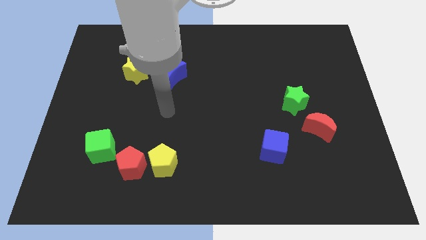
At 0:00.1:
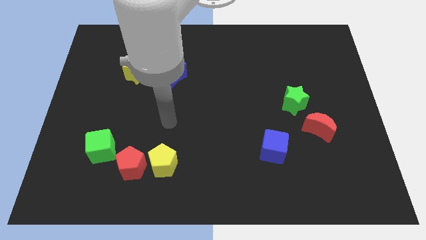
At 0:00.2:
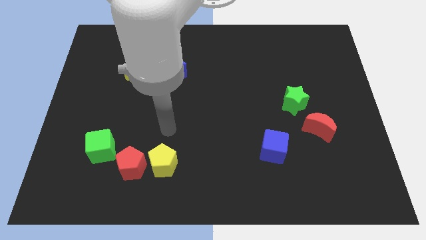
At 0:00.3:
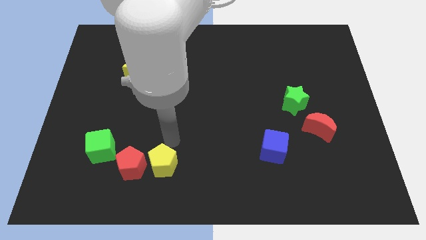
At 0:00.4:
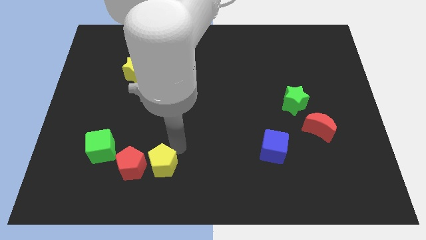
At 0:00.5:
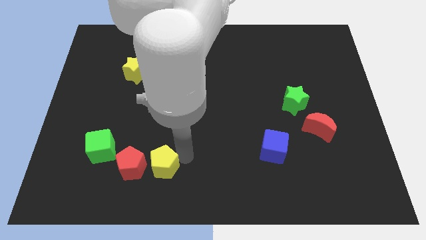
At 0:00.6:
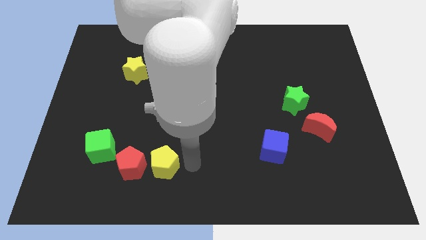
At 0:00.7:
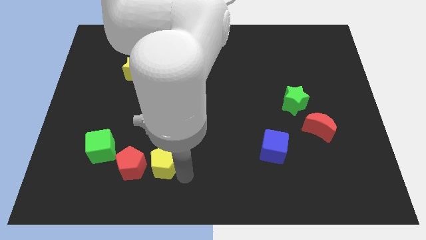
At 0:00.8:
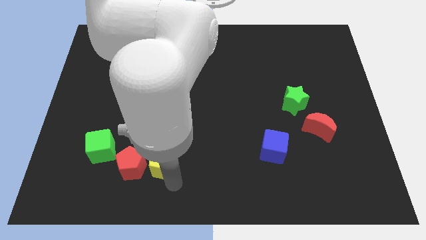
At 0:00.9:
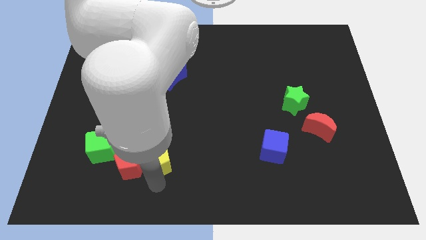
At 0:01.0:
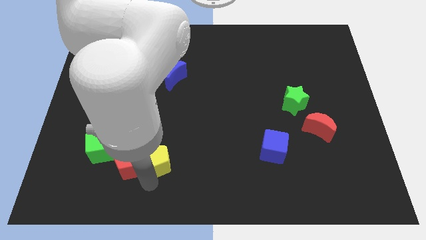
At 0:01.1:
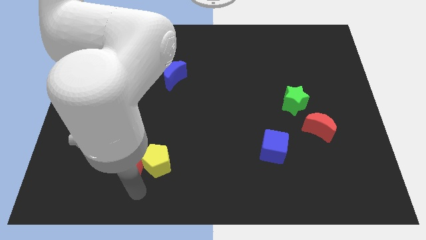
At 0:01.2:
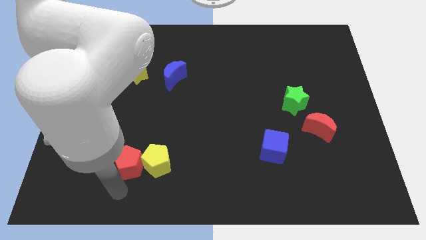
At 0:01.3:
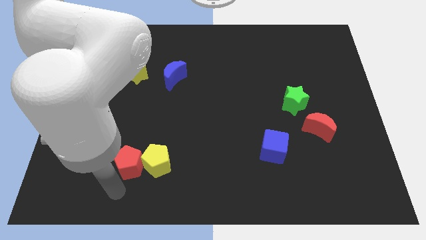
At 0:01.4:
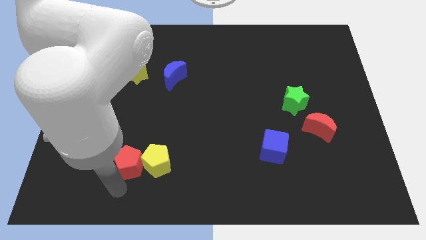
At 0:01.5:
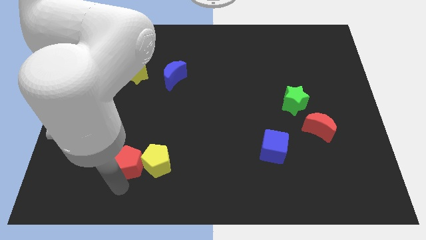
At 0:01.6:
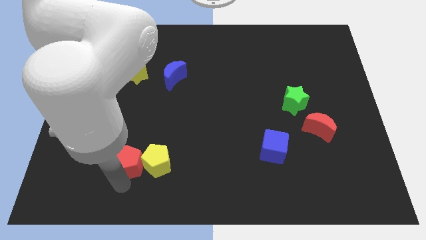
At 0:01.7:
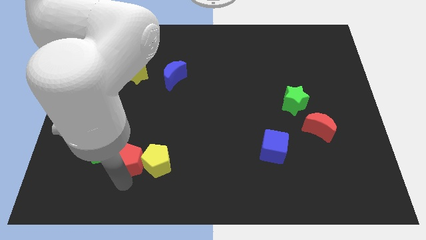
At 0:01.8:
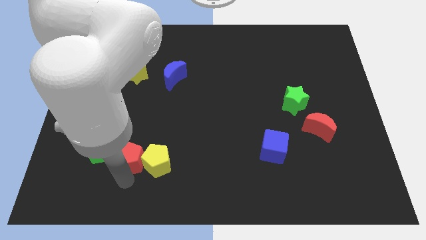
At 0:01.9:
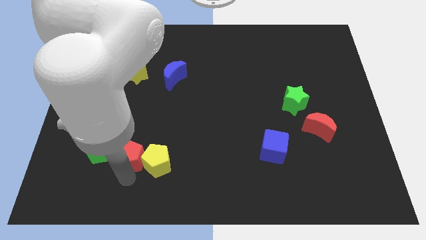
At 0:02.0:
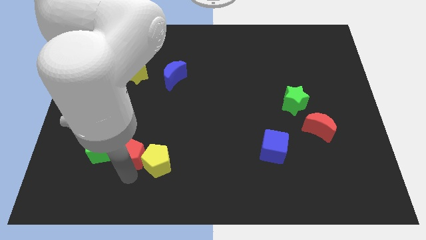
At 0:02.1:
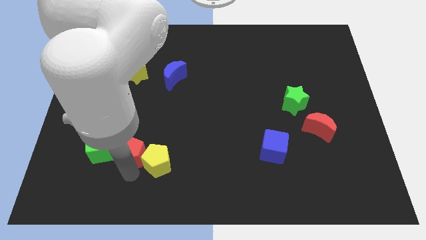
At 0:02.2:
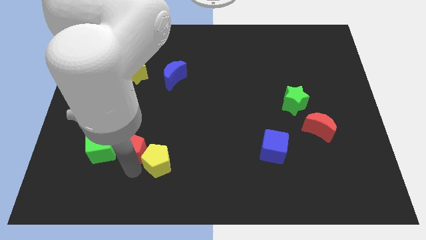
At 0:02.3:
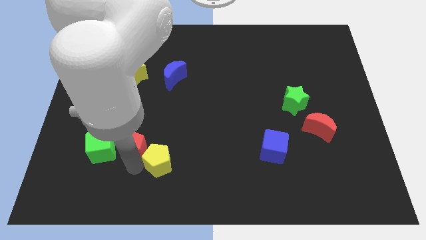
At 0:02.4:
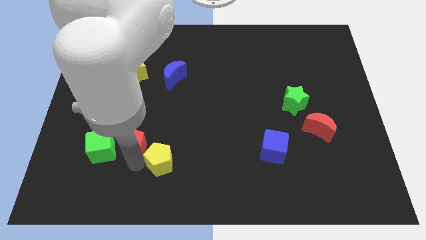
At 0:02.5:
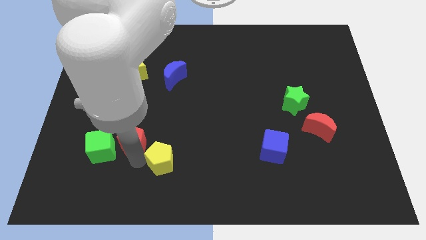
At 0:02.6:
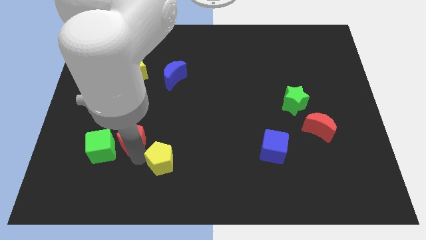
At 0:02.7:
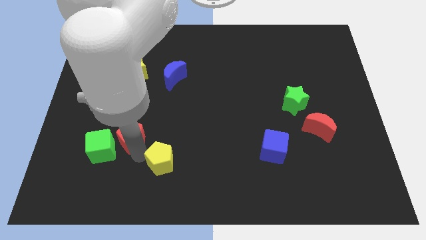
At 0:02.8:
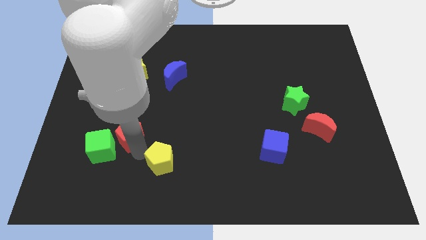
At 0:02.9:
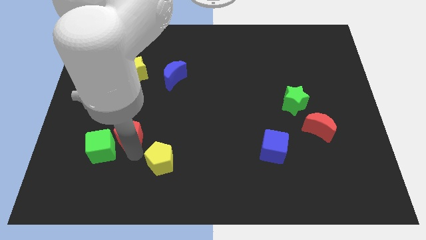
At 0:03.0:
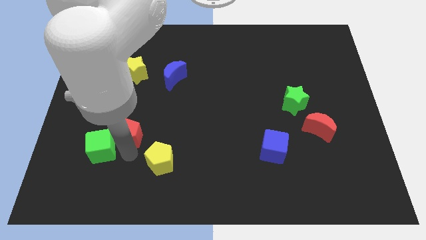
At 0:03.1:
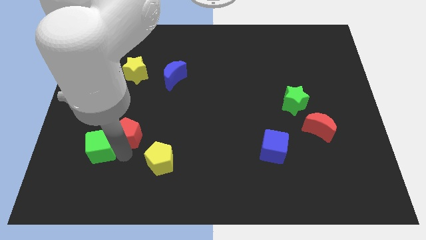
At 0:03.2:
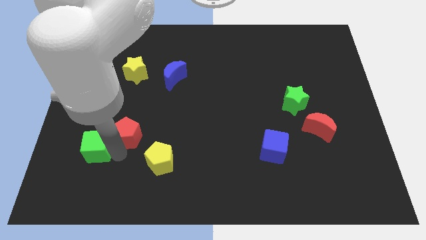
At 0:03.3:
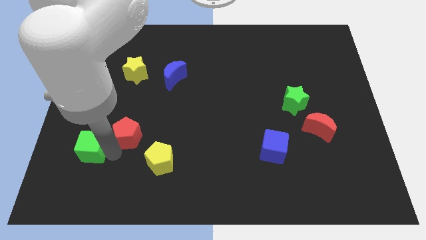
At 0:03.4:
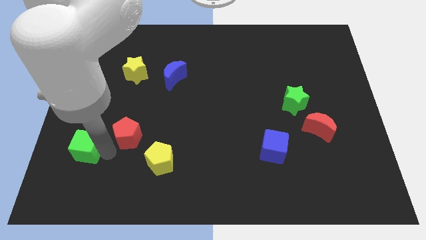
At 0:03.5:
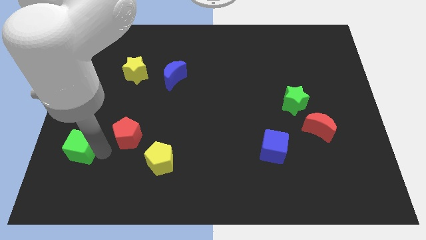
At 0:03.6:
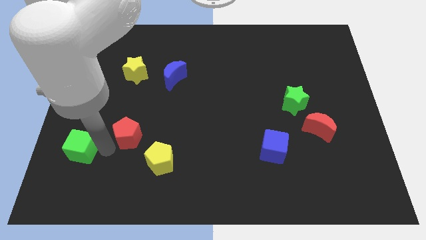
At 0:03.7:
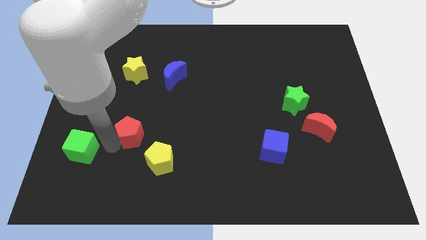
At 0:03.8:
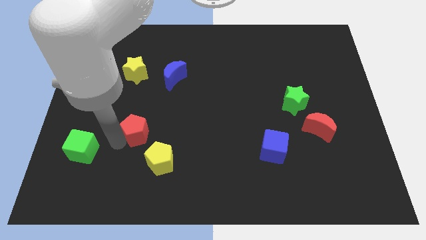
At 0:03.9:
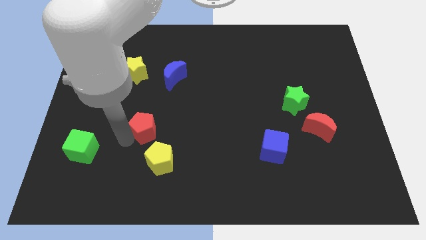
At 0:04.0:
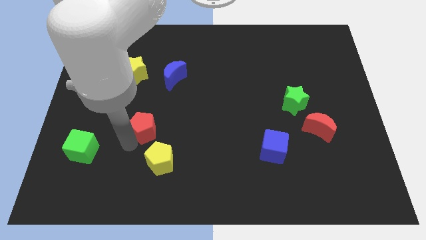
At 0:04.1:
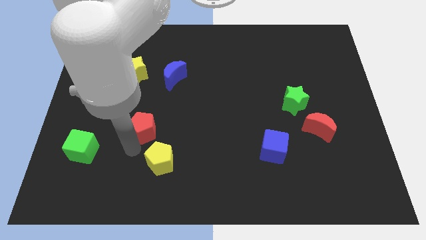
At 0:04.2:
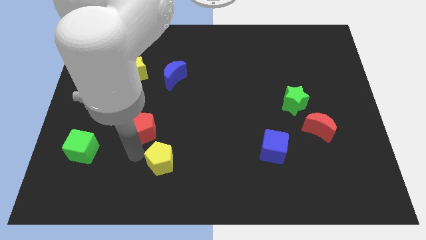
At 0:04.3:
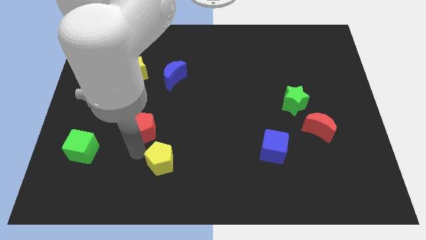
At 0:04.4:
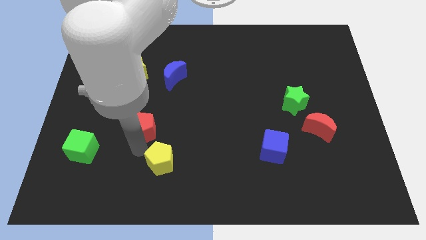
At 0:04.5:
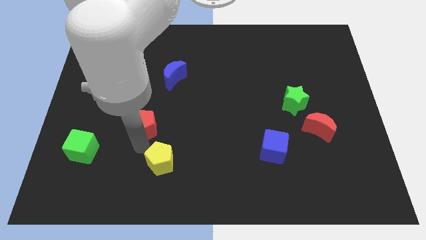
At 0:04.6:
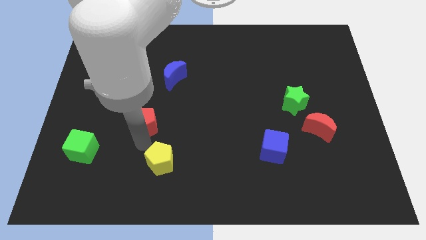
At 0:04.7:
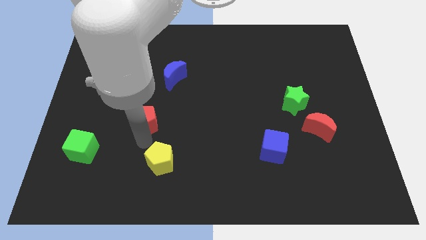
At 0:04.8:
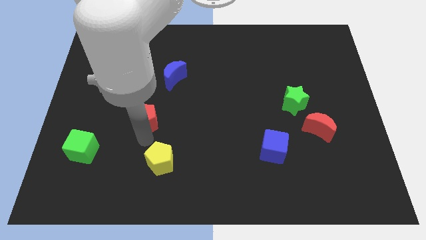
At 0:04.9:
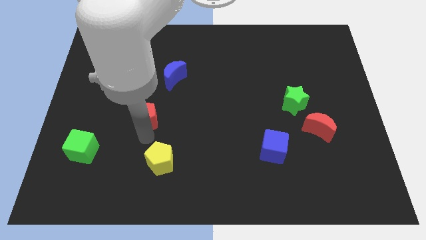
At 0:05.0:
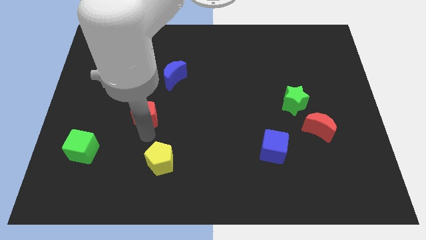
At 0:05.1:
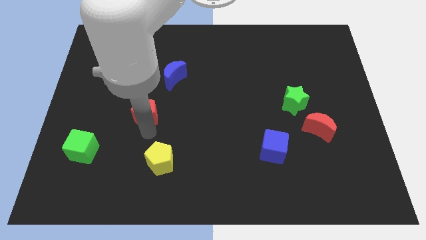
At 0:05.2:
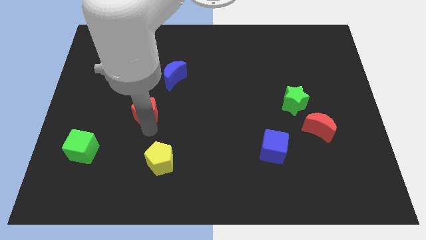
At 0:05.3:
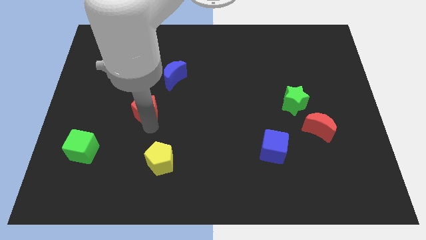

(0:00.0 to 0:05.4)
put the red pentagon to the bottom left side of the blue moon

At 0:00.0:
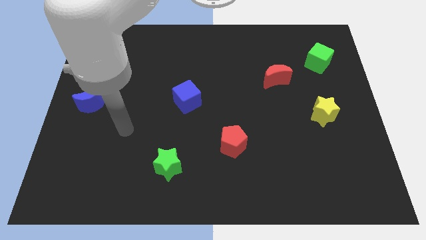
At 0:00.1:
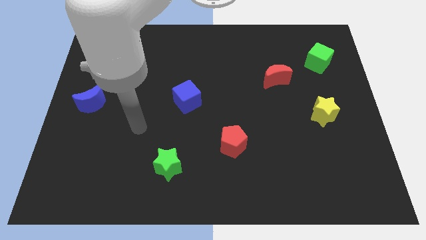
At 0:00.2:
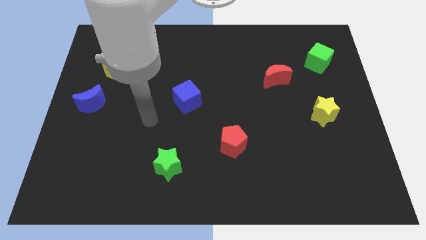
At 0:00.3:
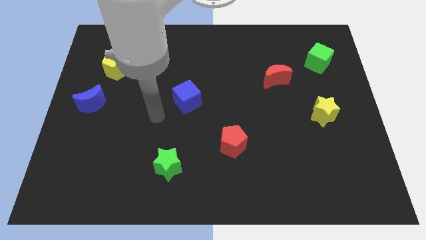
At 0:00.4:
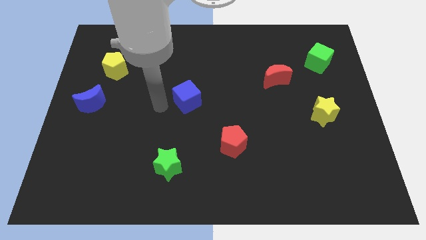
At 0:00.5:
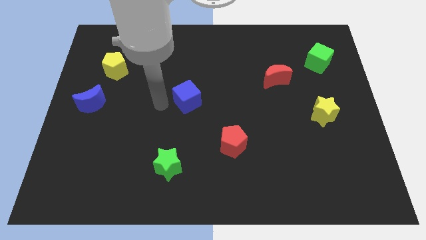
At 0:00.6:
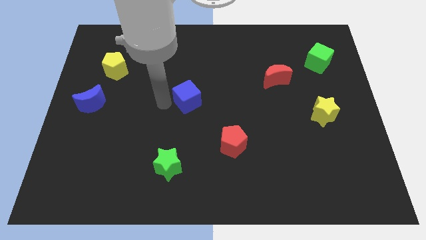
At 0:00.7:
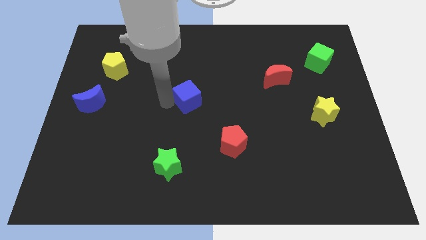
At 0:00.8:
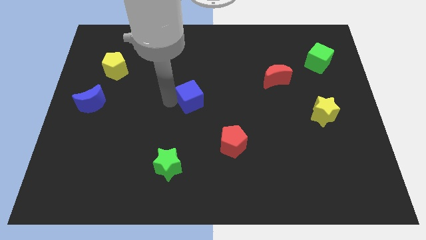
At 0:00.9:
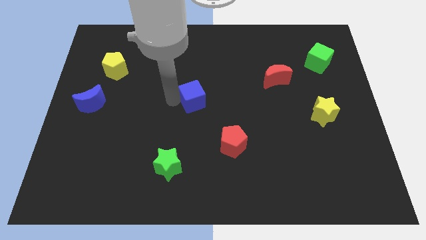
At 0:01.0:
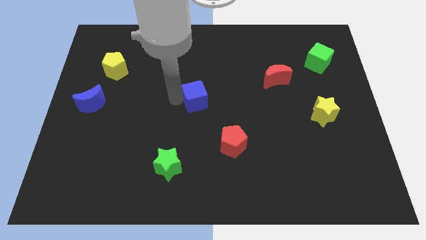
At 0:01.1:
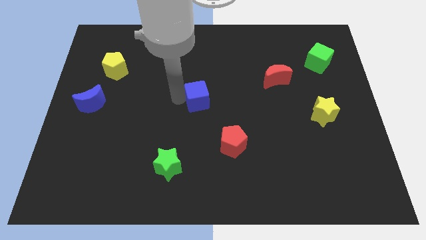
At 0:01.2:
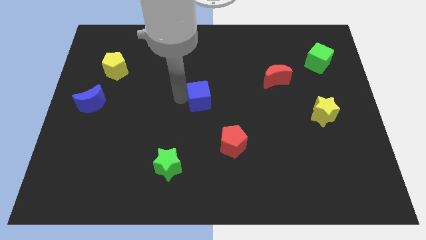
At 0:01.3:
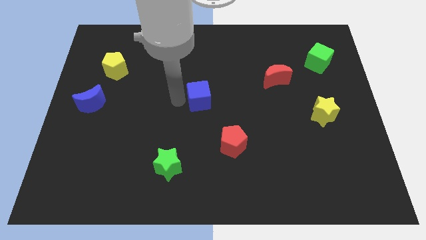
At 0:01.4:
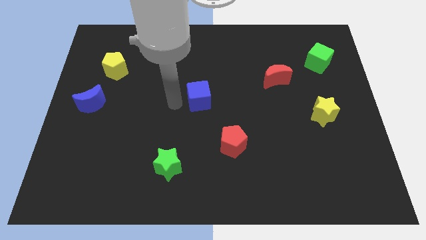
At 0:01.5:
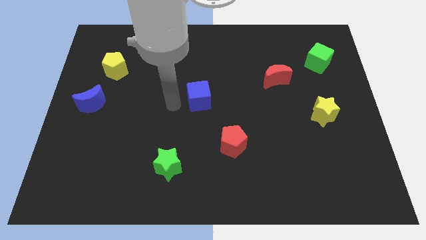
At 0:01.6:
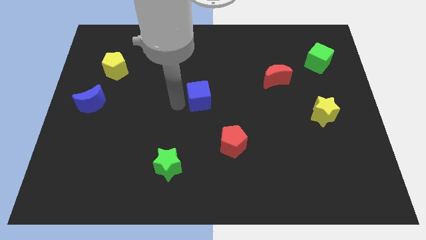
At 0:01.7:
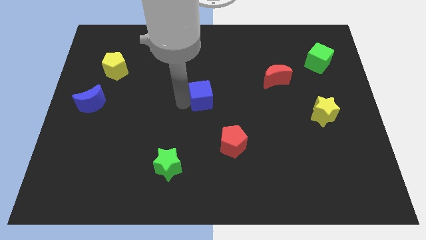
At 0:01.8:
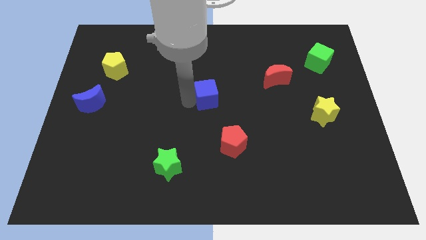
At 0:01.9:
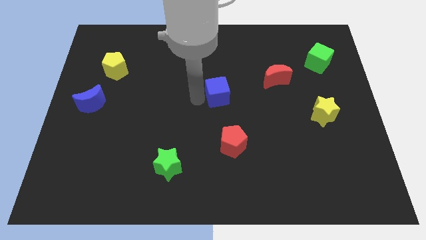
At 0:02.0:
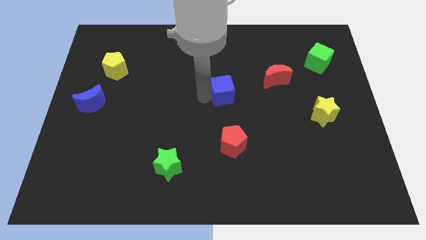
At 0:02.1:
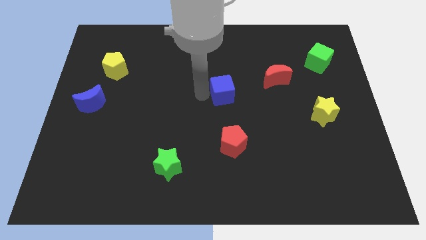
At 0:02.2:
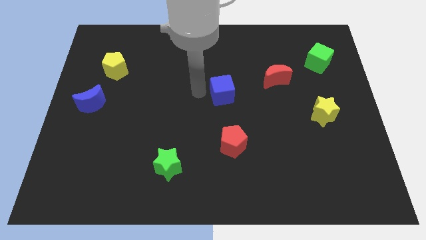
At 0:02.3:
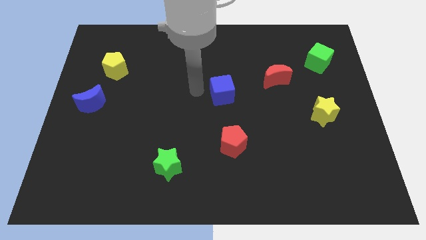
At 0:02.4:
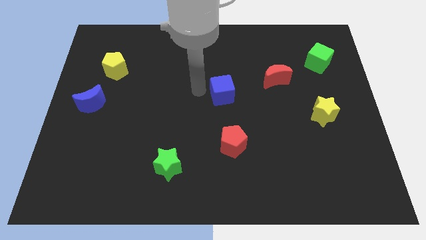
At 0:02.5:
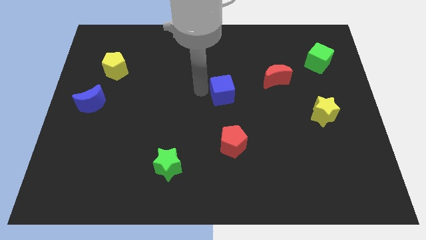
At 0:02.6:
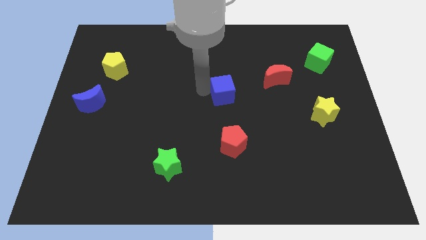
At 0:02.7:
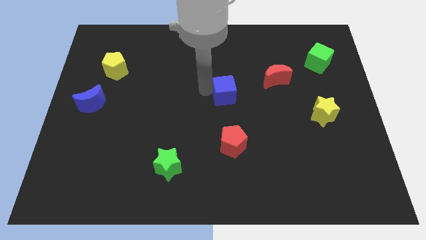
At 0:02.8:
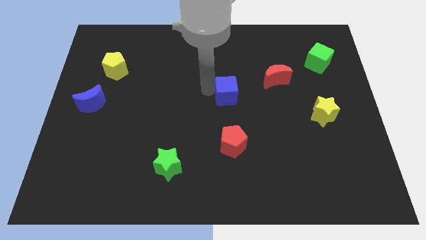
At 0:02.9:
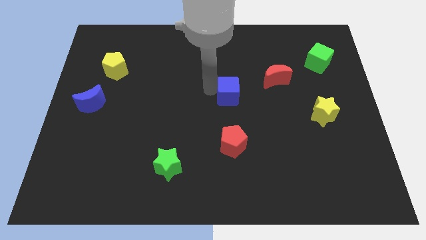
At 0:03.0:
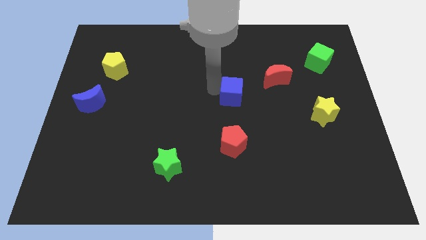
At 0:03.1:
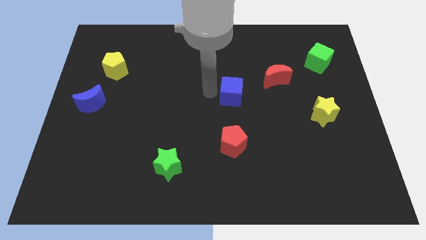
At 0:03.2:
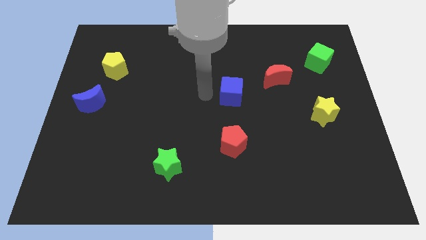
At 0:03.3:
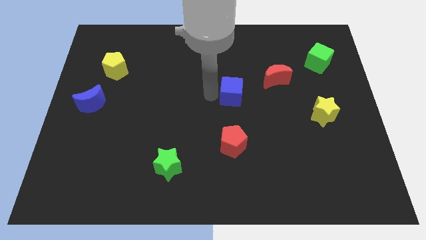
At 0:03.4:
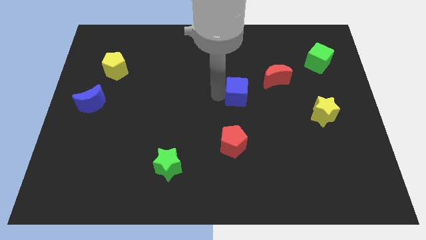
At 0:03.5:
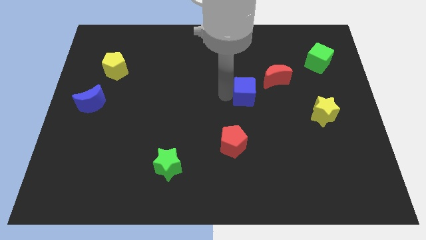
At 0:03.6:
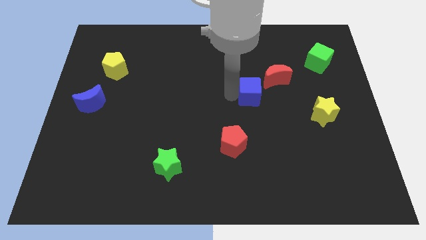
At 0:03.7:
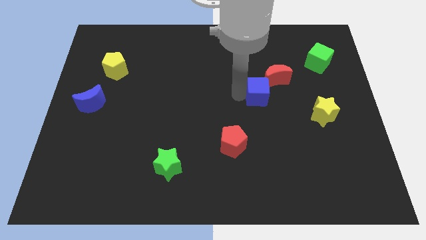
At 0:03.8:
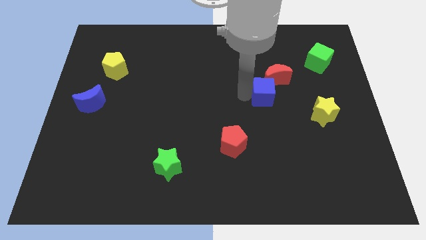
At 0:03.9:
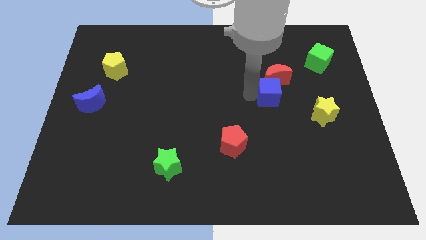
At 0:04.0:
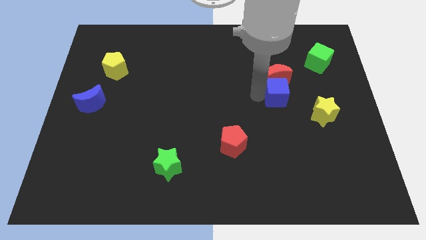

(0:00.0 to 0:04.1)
push the blue cube diagonally down and to the right of the red moon
